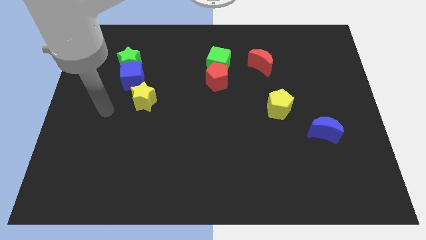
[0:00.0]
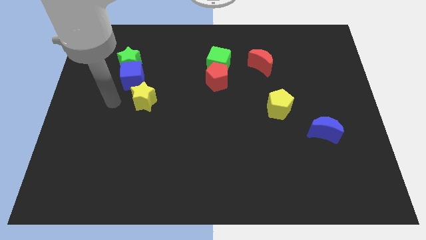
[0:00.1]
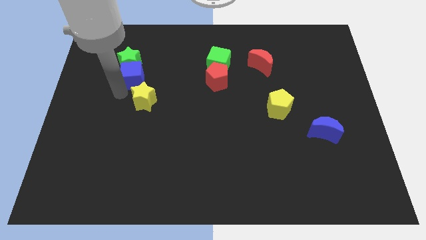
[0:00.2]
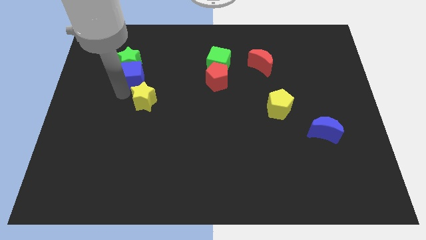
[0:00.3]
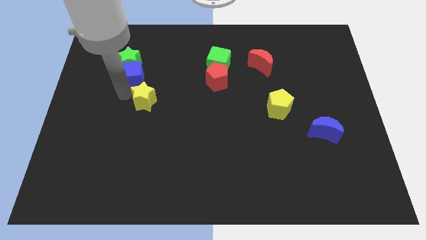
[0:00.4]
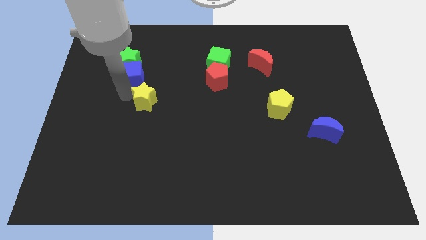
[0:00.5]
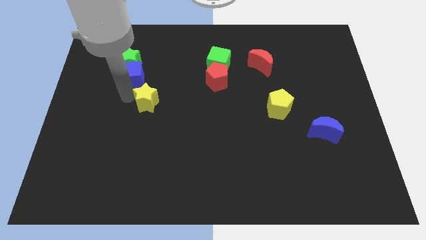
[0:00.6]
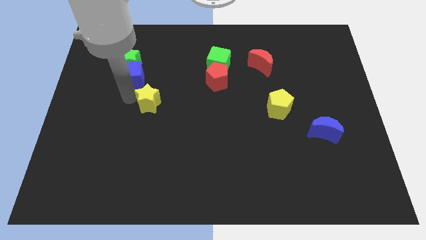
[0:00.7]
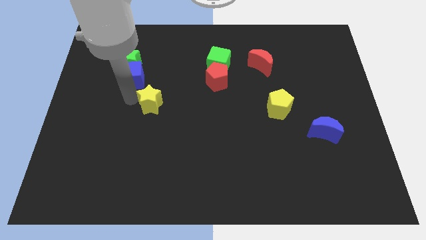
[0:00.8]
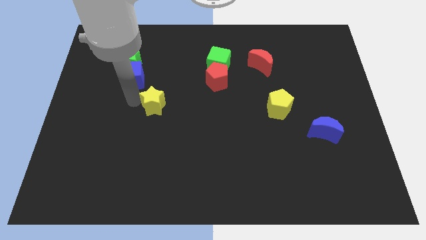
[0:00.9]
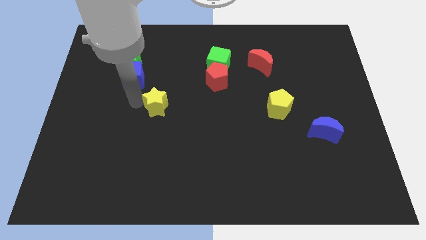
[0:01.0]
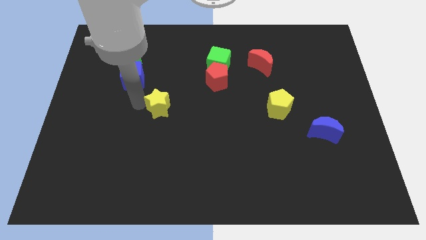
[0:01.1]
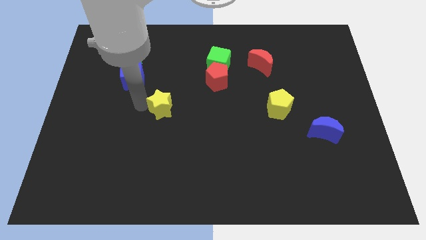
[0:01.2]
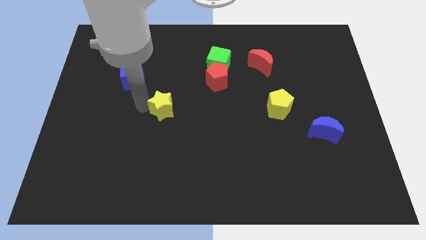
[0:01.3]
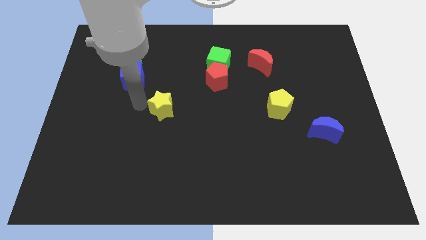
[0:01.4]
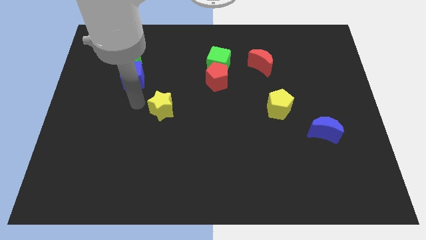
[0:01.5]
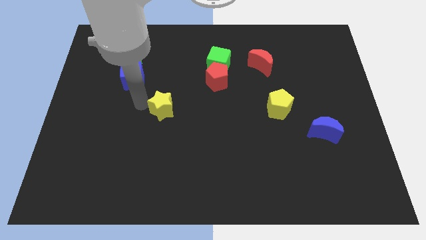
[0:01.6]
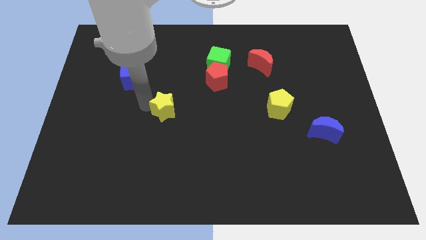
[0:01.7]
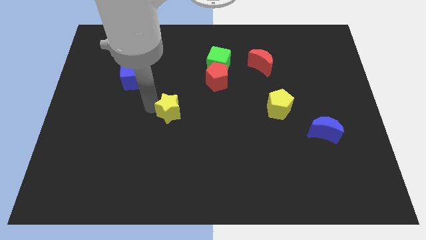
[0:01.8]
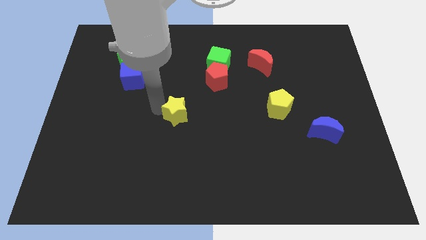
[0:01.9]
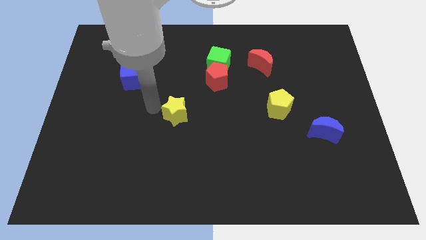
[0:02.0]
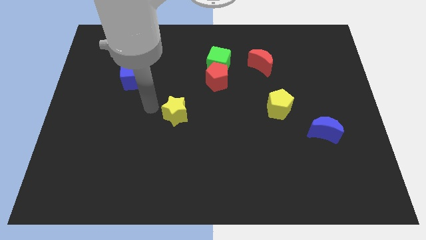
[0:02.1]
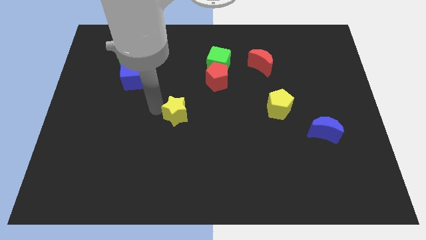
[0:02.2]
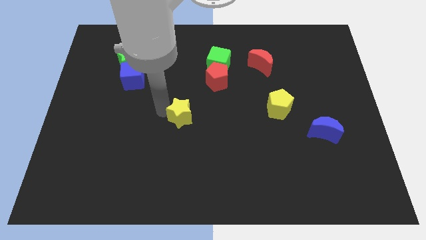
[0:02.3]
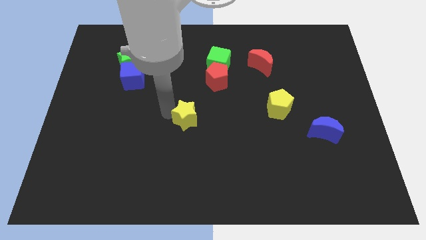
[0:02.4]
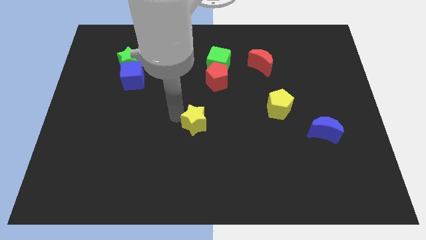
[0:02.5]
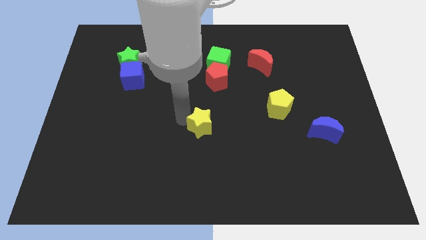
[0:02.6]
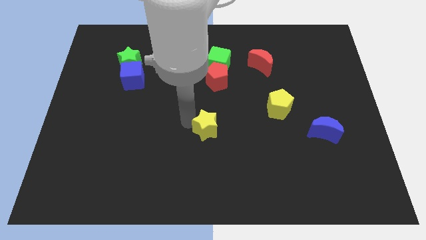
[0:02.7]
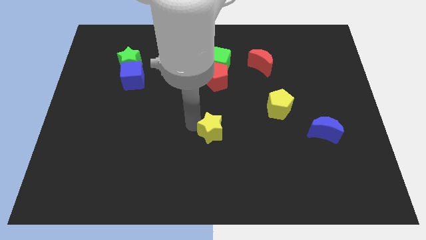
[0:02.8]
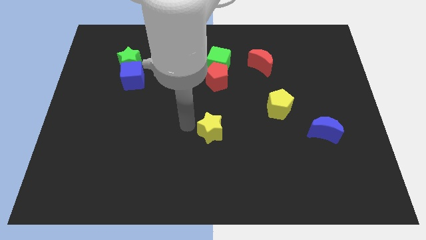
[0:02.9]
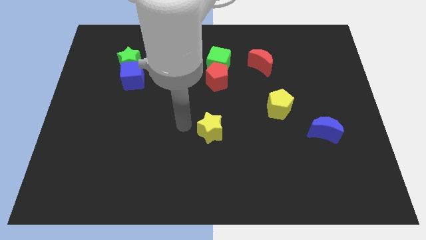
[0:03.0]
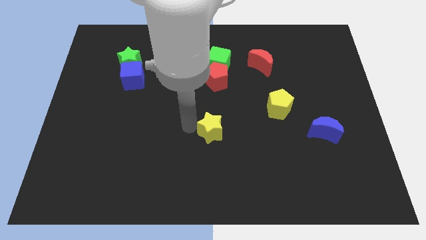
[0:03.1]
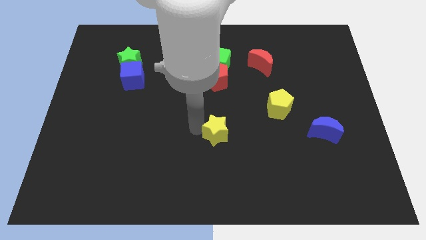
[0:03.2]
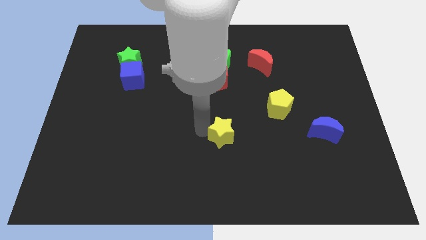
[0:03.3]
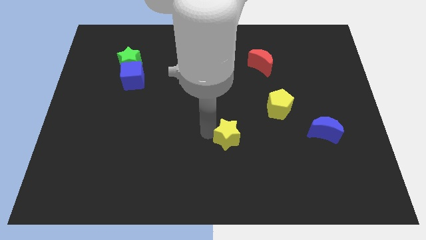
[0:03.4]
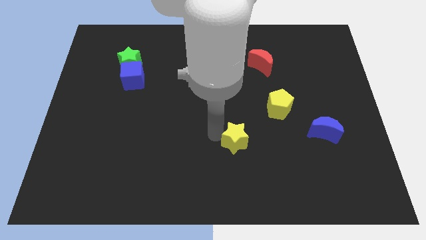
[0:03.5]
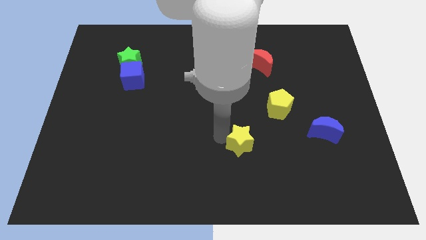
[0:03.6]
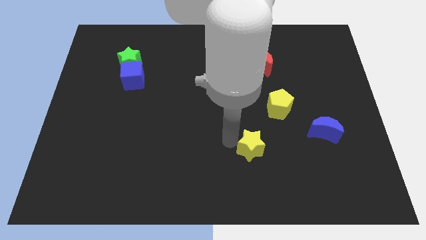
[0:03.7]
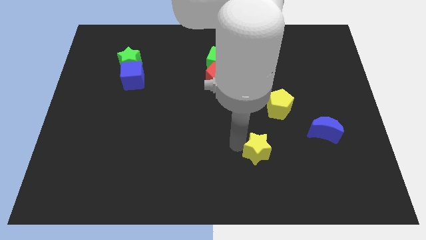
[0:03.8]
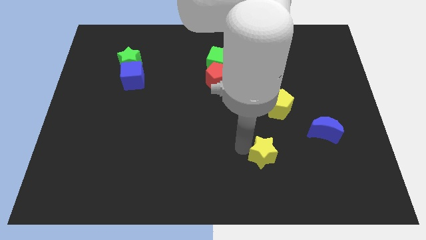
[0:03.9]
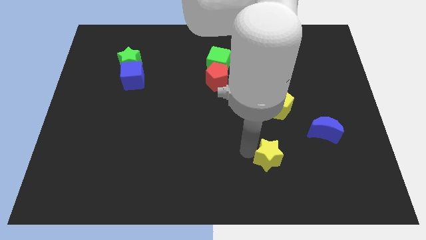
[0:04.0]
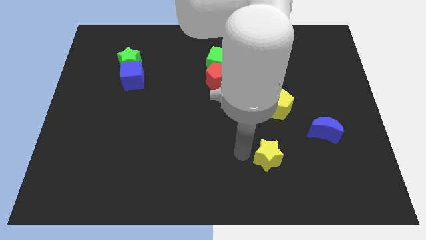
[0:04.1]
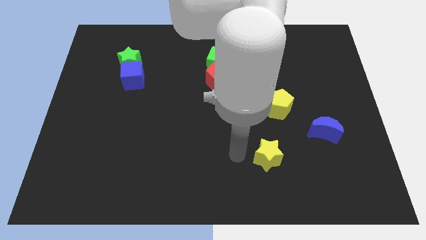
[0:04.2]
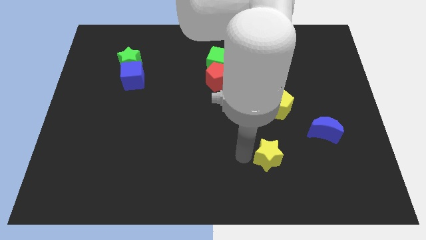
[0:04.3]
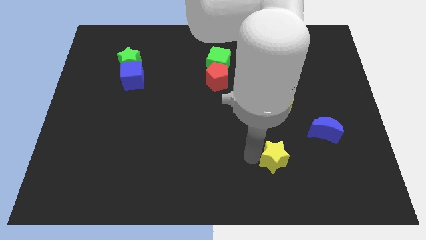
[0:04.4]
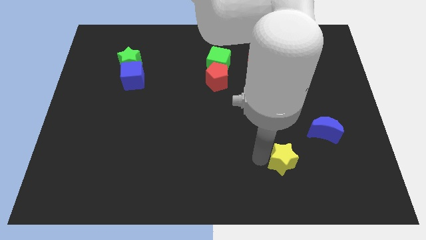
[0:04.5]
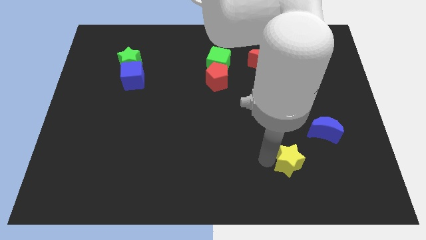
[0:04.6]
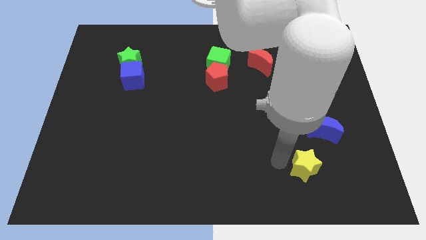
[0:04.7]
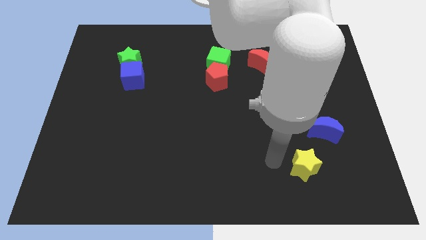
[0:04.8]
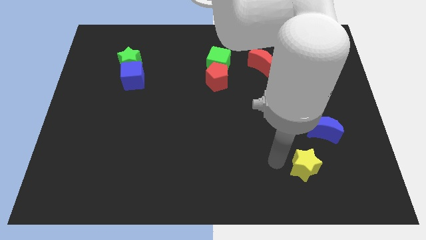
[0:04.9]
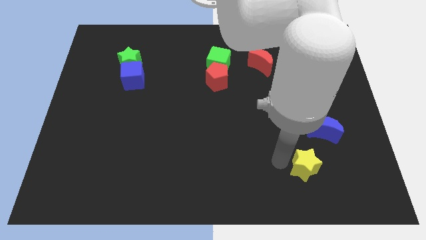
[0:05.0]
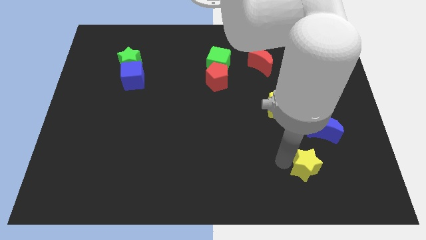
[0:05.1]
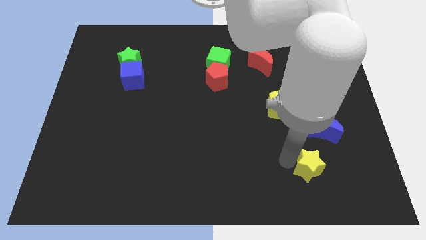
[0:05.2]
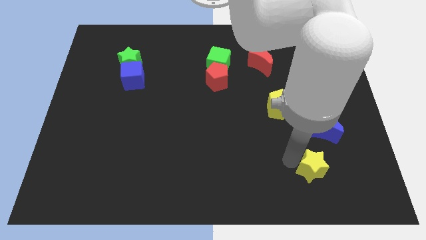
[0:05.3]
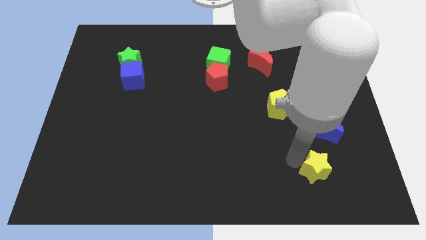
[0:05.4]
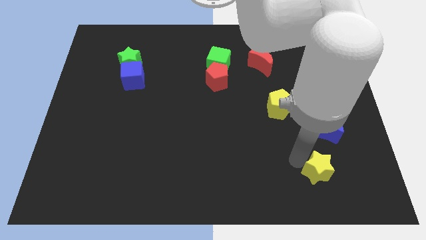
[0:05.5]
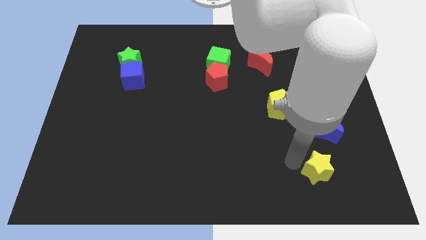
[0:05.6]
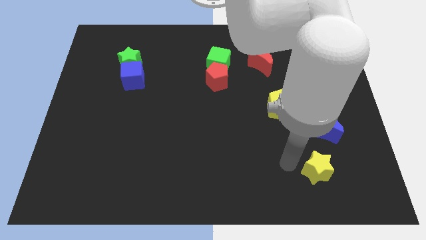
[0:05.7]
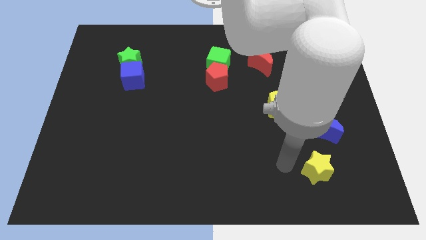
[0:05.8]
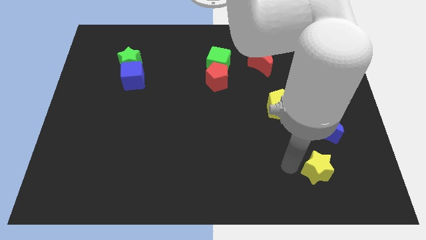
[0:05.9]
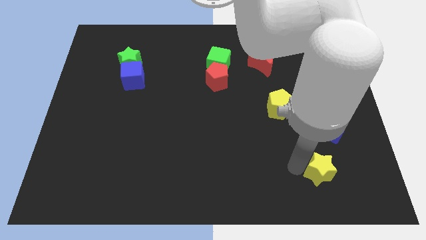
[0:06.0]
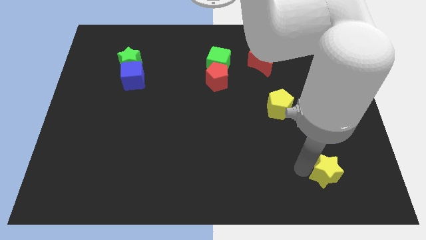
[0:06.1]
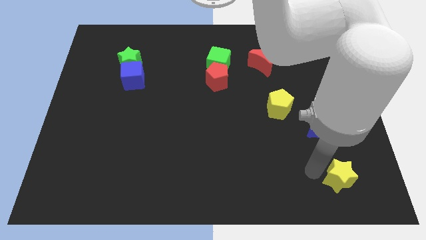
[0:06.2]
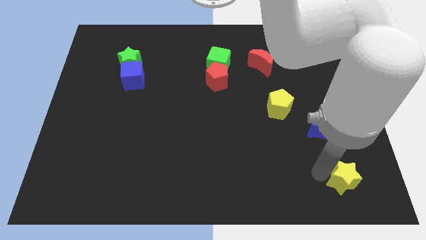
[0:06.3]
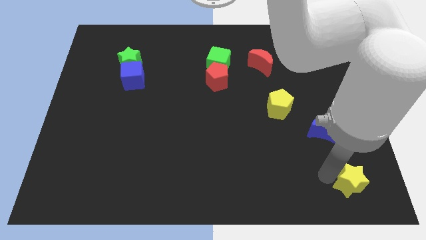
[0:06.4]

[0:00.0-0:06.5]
push the yellow star to the lower right corner

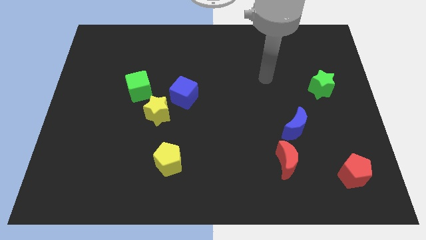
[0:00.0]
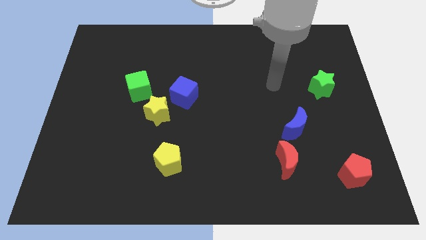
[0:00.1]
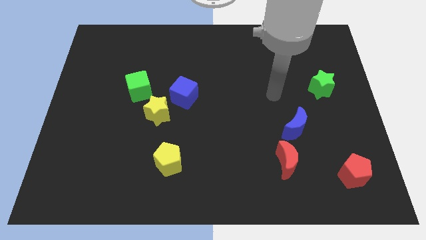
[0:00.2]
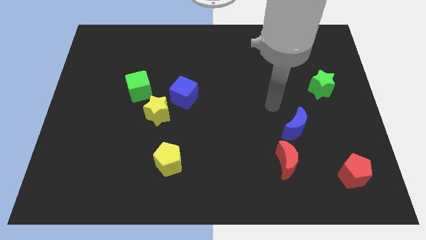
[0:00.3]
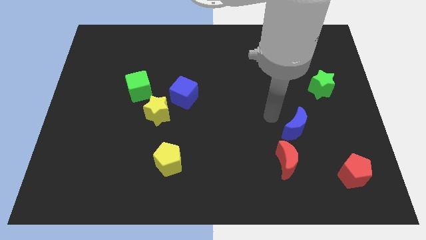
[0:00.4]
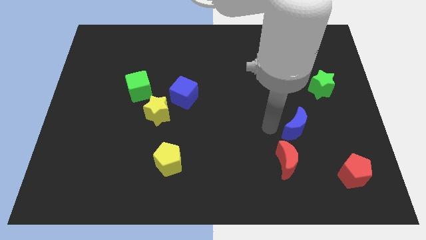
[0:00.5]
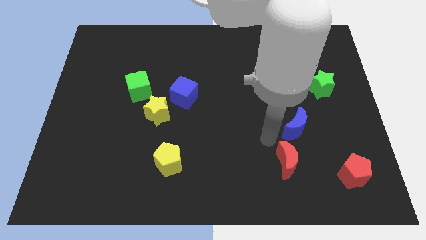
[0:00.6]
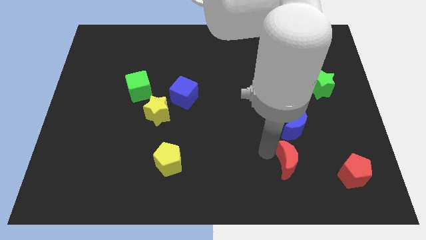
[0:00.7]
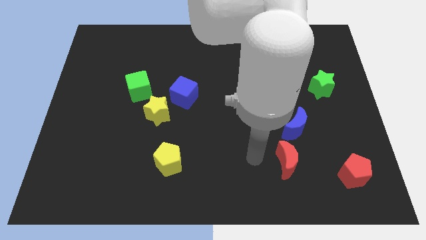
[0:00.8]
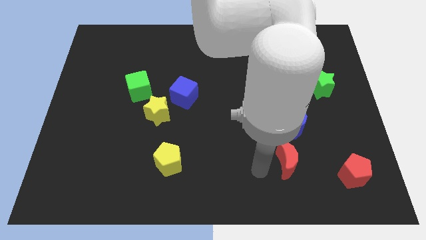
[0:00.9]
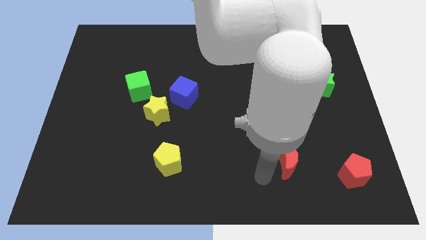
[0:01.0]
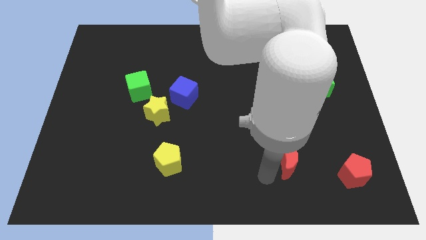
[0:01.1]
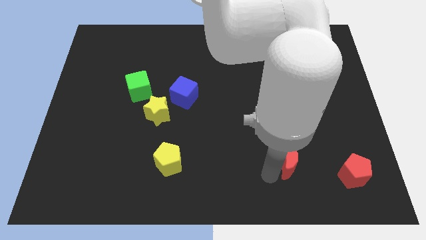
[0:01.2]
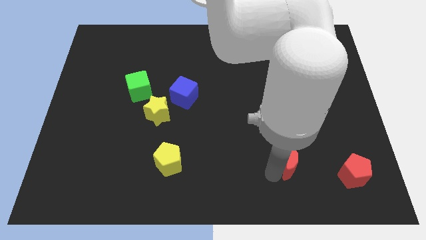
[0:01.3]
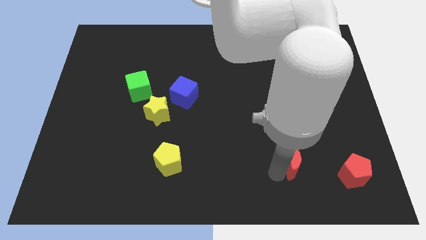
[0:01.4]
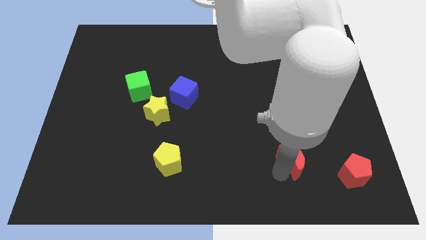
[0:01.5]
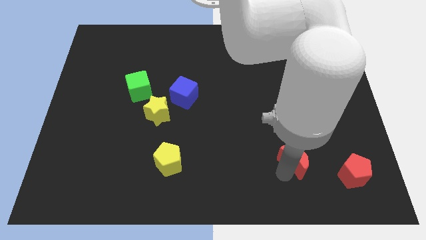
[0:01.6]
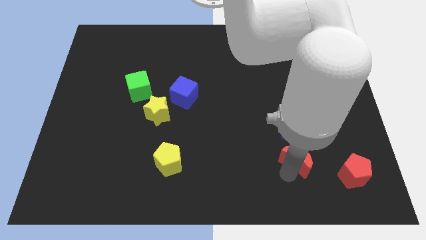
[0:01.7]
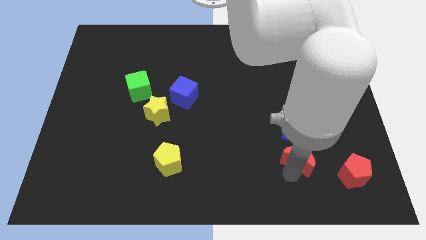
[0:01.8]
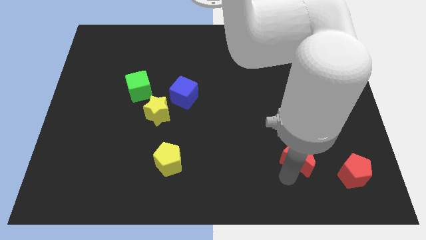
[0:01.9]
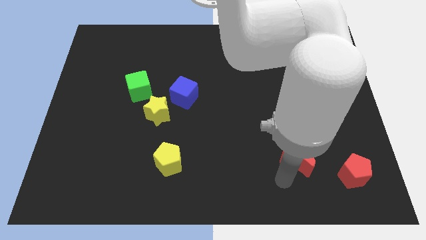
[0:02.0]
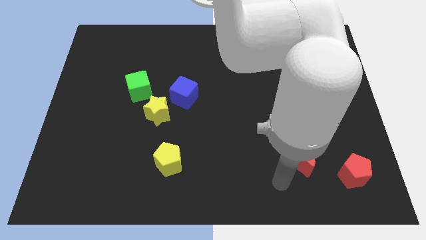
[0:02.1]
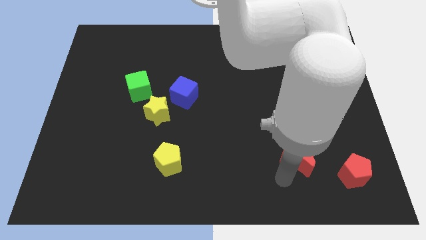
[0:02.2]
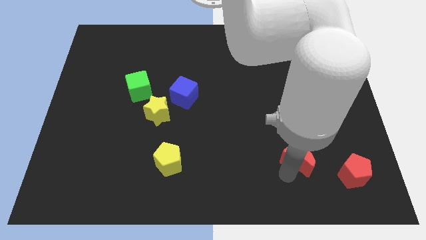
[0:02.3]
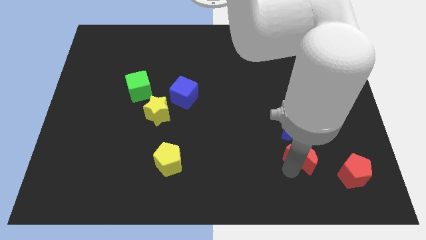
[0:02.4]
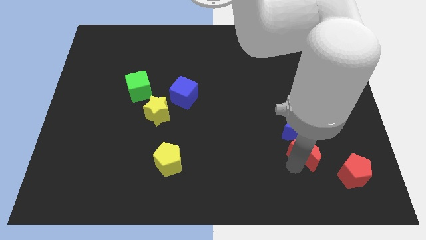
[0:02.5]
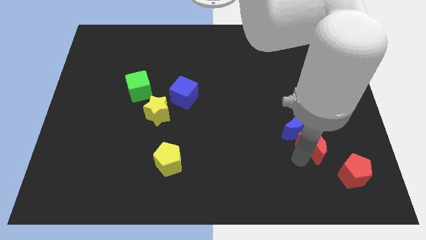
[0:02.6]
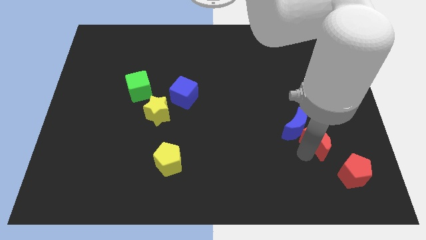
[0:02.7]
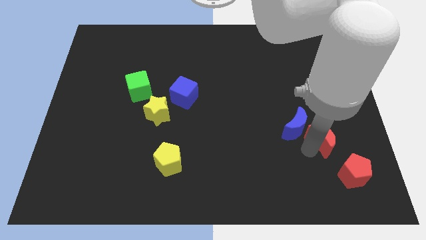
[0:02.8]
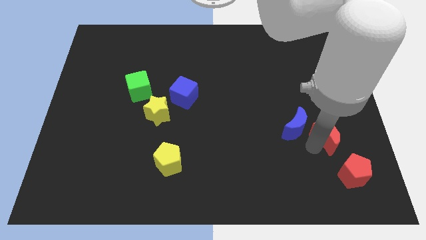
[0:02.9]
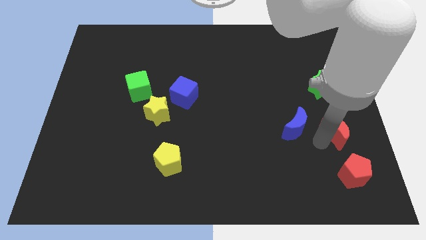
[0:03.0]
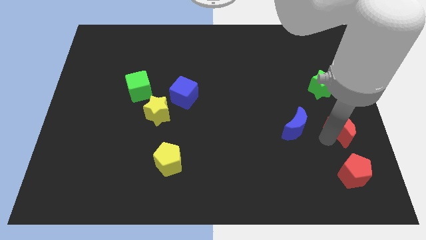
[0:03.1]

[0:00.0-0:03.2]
push the red moon to the center right
